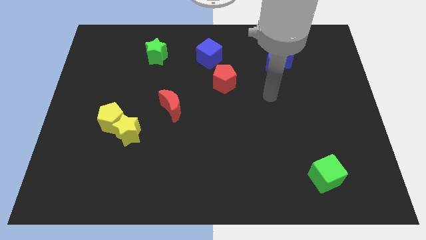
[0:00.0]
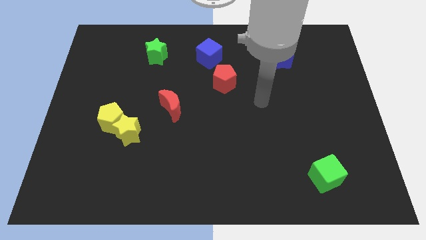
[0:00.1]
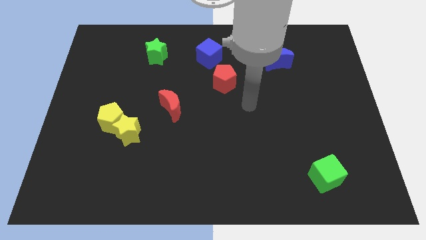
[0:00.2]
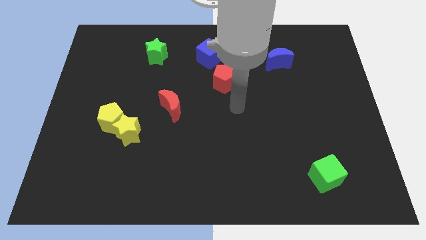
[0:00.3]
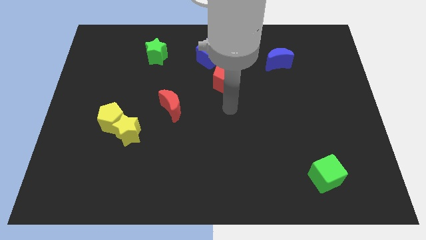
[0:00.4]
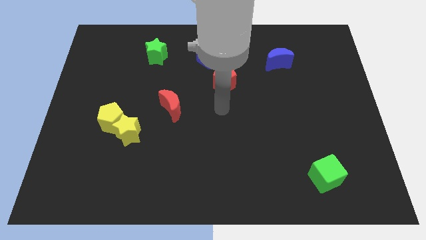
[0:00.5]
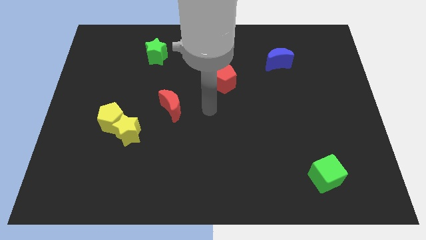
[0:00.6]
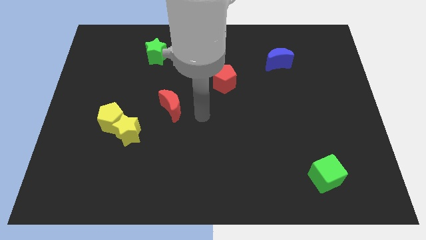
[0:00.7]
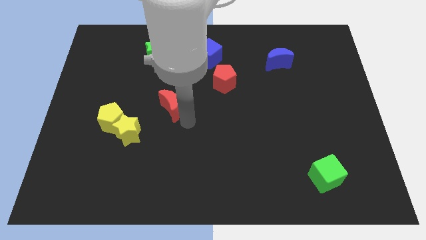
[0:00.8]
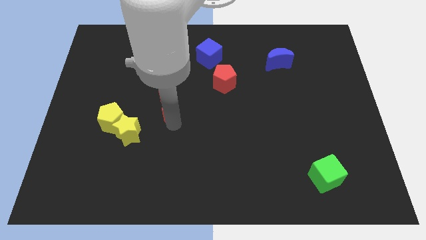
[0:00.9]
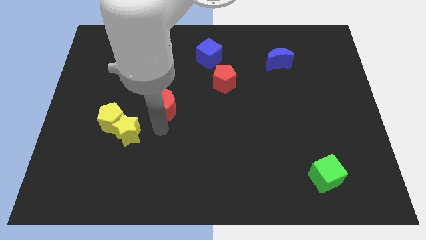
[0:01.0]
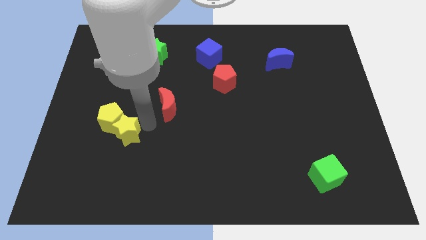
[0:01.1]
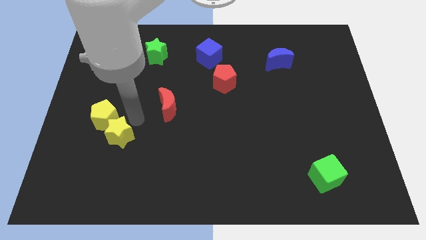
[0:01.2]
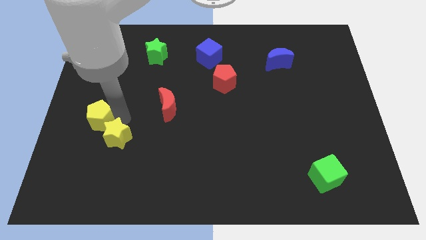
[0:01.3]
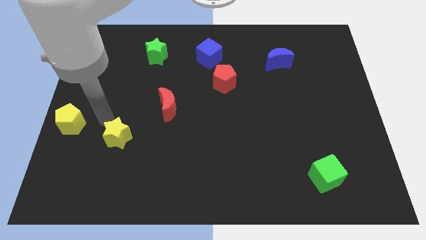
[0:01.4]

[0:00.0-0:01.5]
move the yellow star away from the yellow pentagon

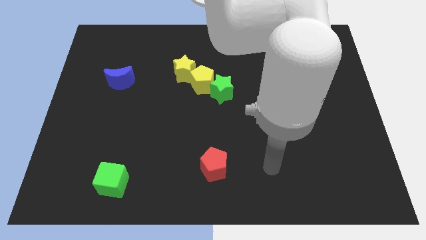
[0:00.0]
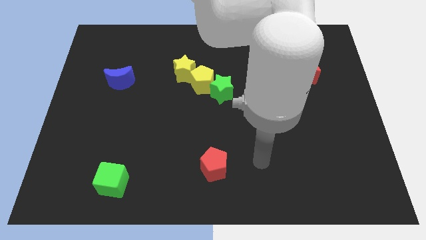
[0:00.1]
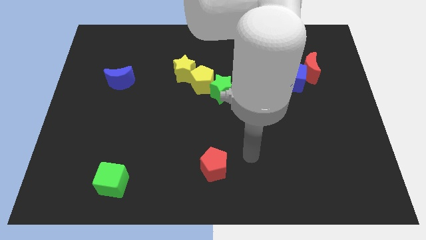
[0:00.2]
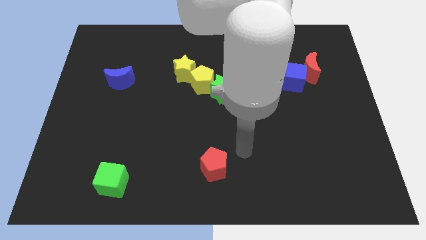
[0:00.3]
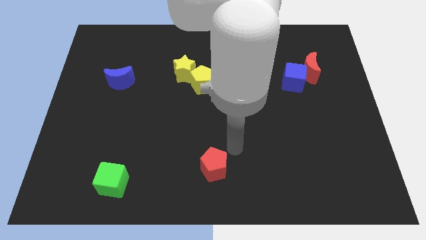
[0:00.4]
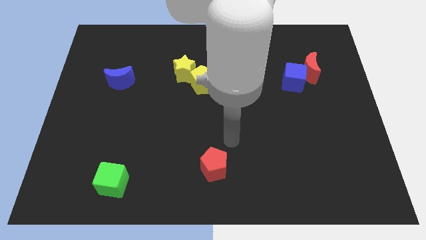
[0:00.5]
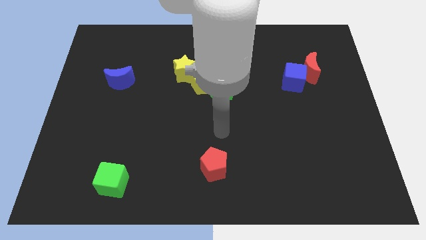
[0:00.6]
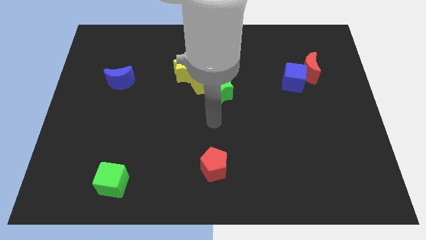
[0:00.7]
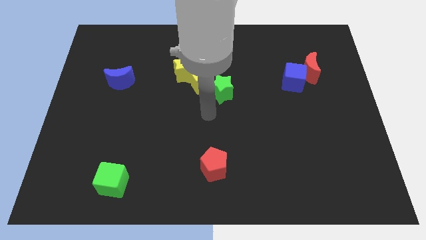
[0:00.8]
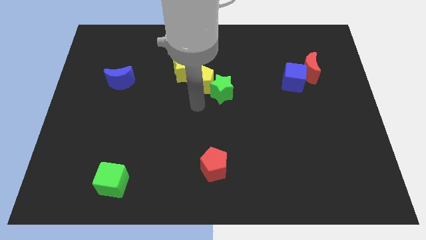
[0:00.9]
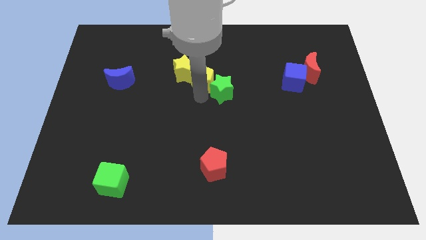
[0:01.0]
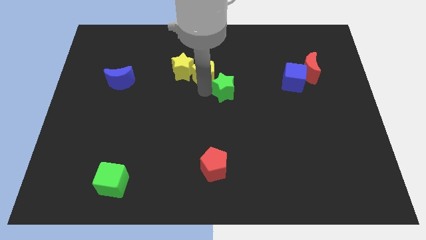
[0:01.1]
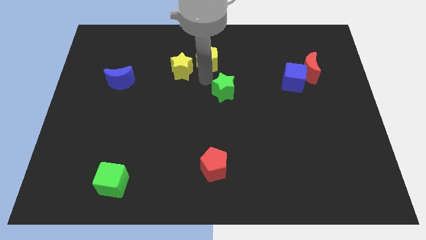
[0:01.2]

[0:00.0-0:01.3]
separate the green star from the yellow pentagon

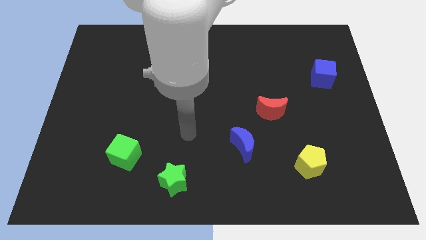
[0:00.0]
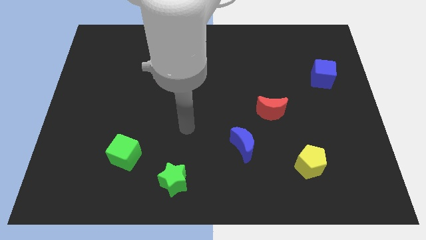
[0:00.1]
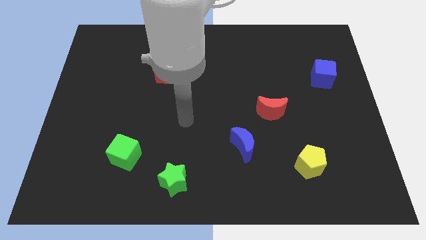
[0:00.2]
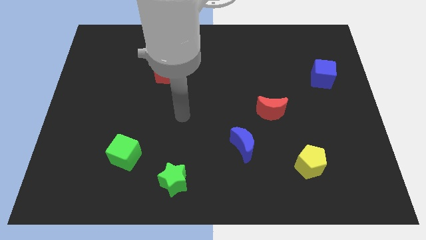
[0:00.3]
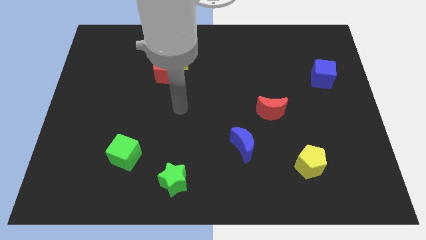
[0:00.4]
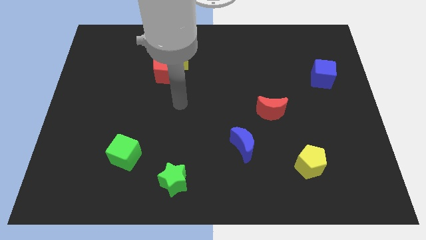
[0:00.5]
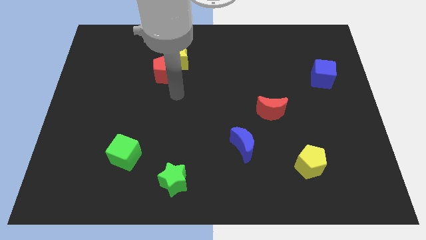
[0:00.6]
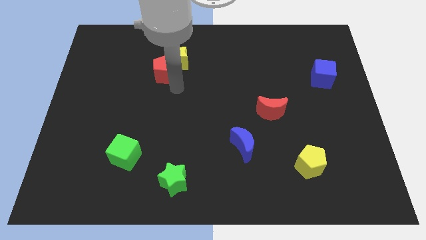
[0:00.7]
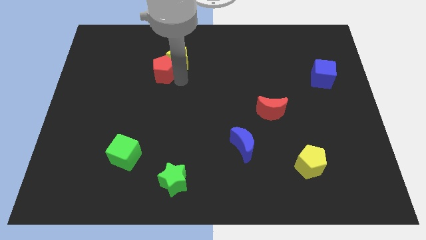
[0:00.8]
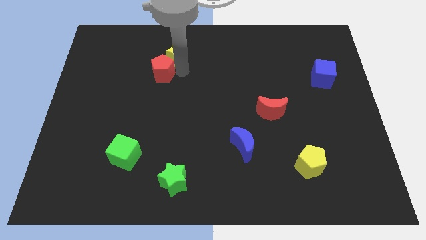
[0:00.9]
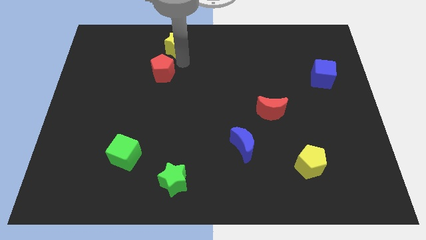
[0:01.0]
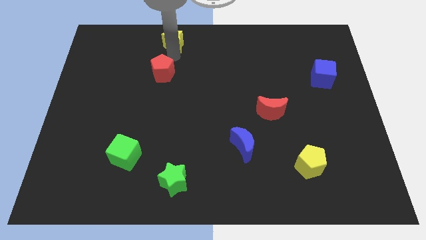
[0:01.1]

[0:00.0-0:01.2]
separate the red pentagon from the yellow star

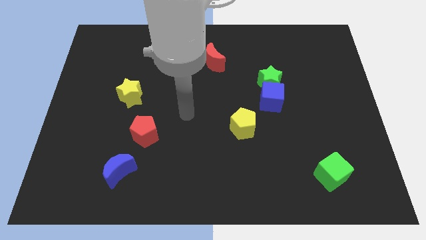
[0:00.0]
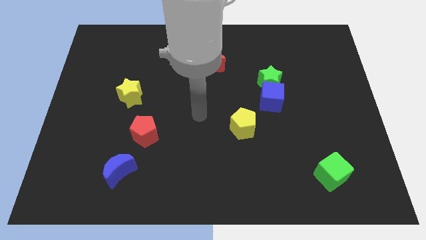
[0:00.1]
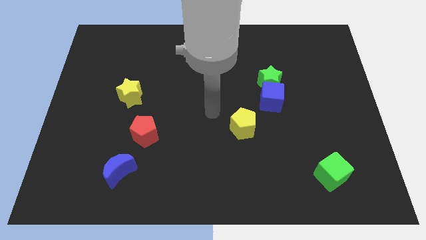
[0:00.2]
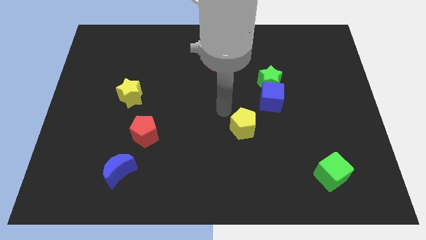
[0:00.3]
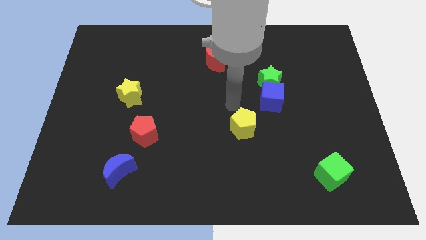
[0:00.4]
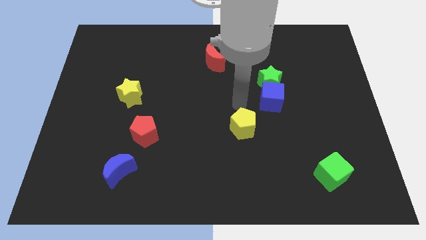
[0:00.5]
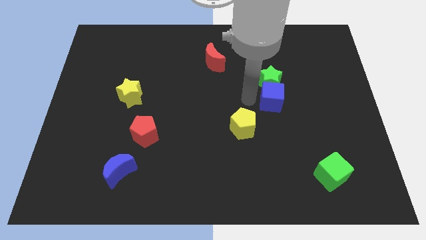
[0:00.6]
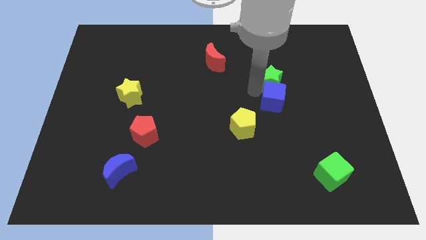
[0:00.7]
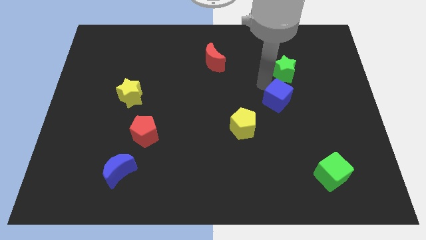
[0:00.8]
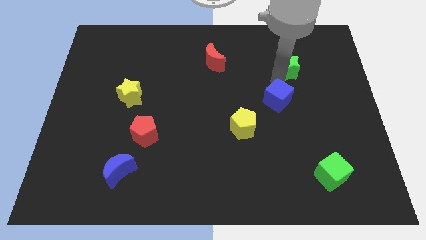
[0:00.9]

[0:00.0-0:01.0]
move the blue cube away from the green star

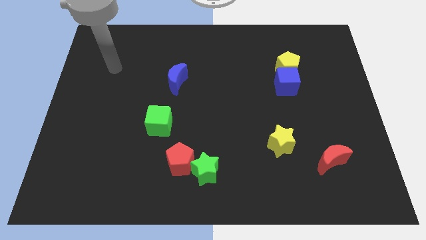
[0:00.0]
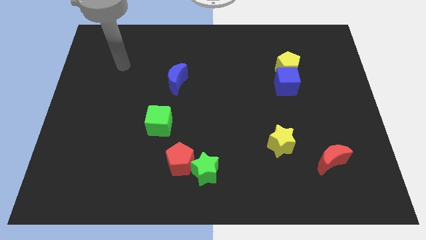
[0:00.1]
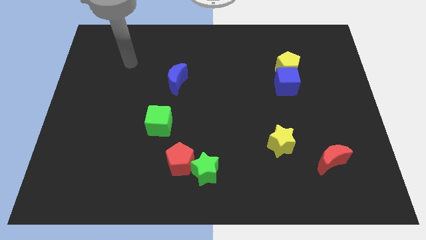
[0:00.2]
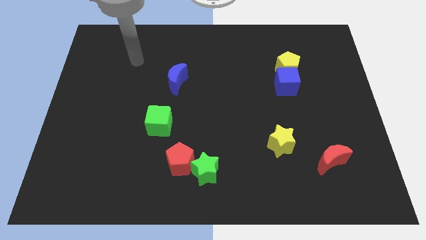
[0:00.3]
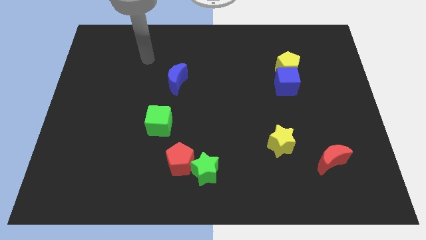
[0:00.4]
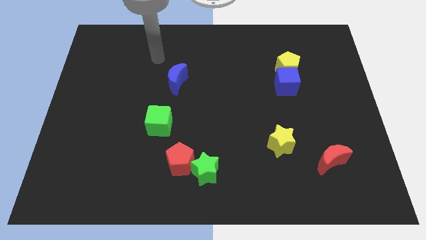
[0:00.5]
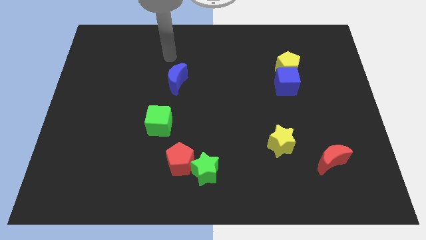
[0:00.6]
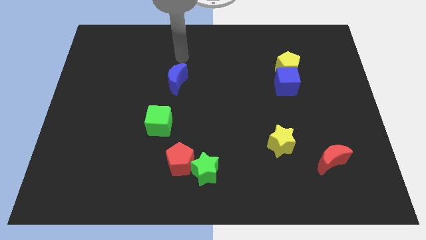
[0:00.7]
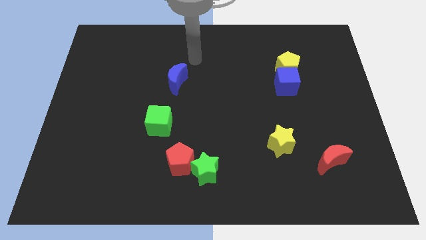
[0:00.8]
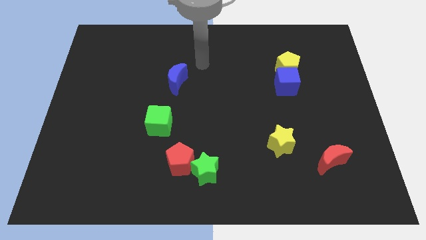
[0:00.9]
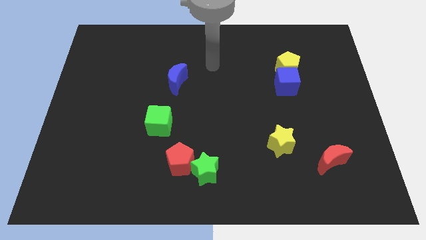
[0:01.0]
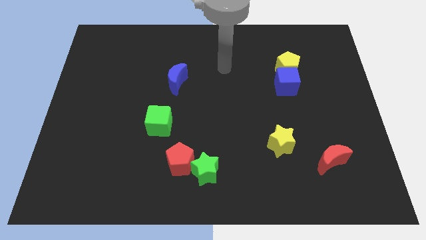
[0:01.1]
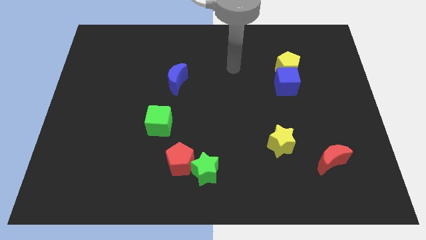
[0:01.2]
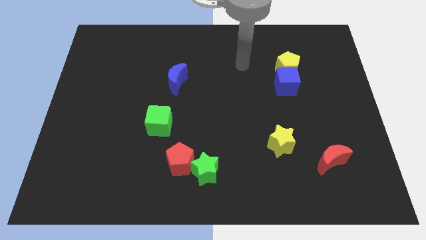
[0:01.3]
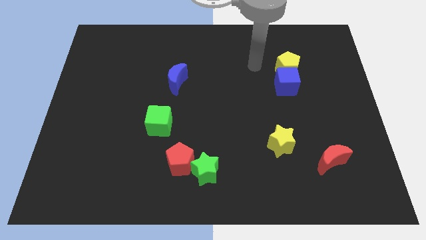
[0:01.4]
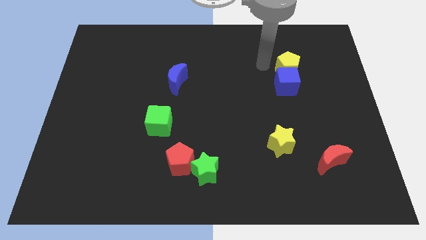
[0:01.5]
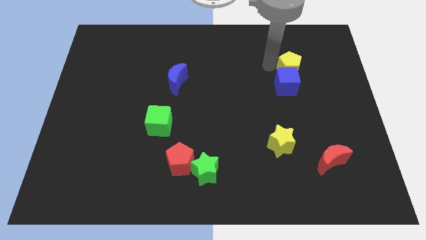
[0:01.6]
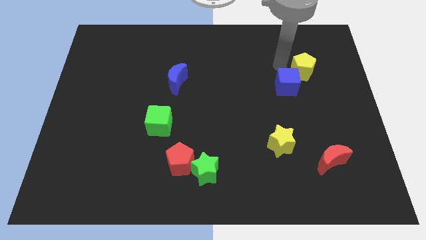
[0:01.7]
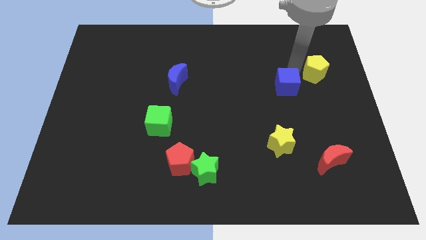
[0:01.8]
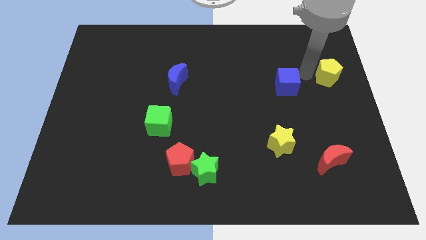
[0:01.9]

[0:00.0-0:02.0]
pull the blue cube apart from the yellow pentagon

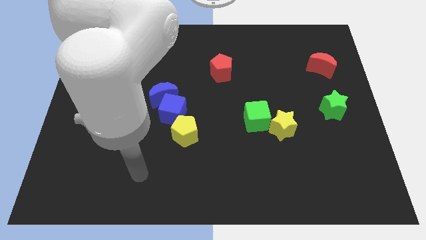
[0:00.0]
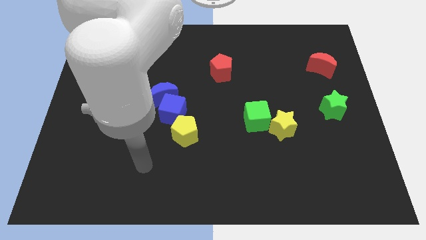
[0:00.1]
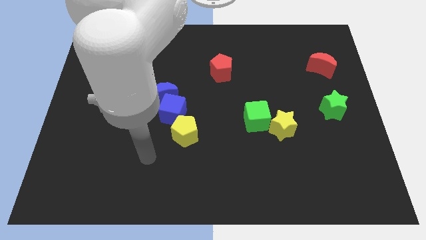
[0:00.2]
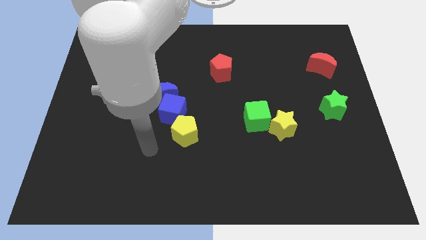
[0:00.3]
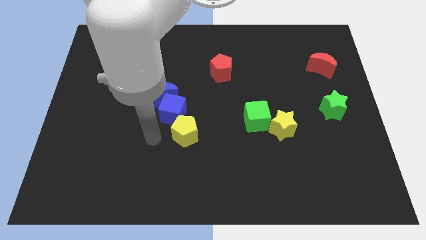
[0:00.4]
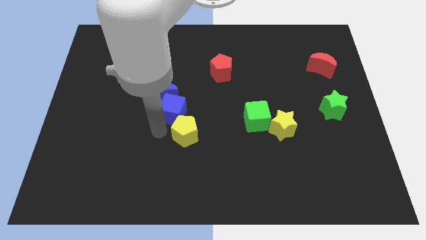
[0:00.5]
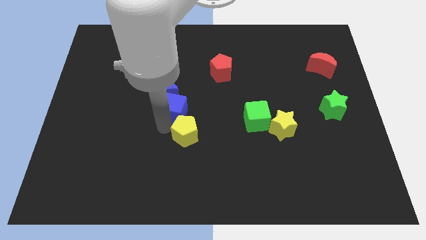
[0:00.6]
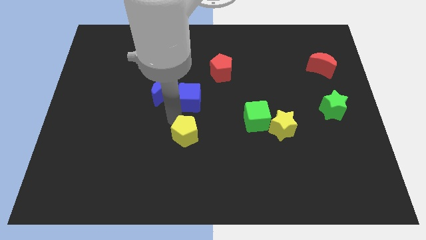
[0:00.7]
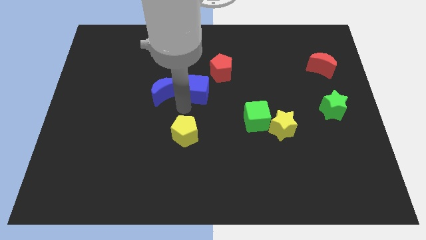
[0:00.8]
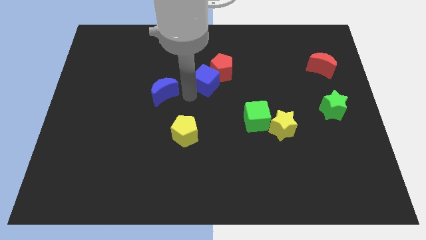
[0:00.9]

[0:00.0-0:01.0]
move the blue moon away from the blue cube

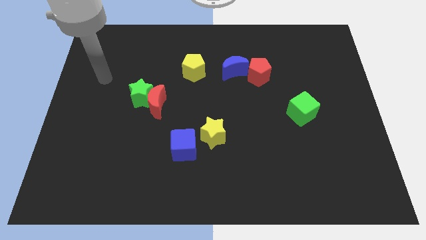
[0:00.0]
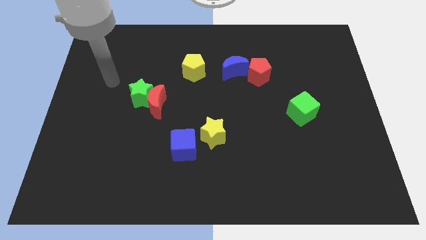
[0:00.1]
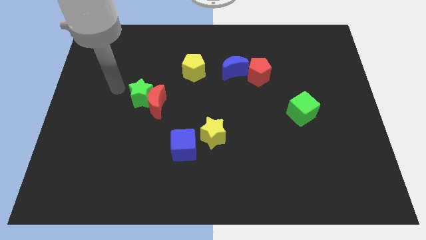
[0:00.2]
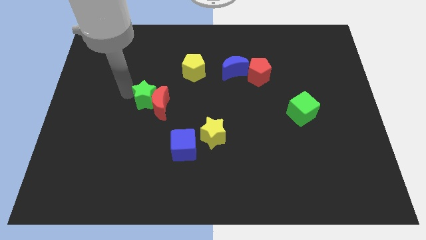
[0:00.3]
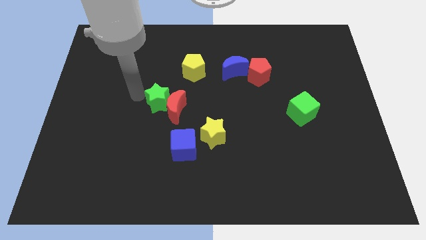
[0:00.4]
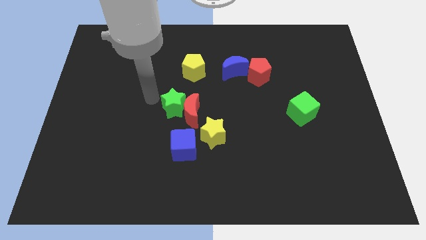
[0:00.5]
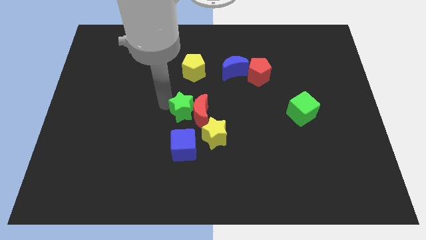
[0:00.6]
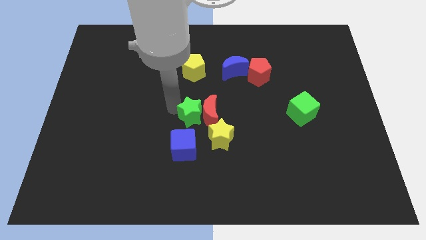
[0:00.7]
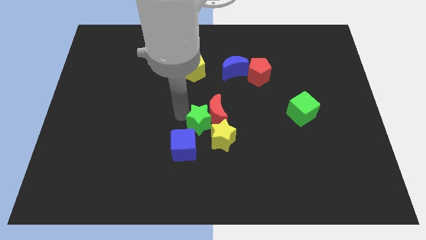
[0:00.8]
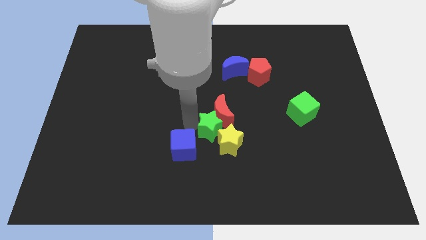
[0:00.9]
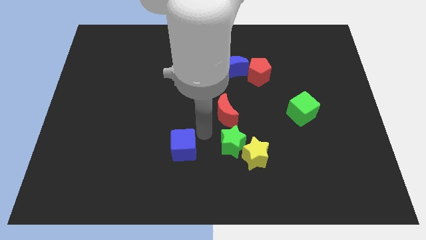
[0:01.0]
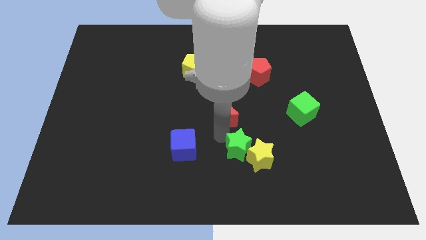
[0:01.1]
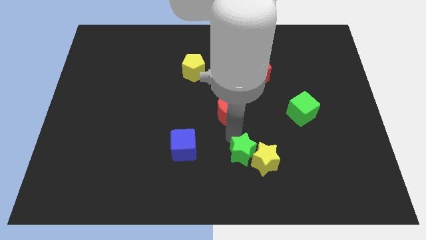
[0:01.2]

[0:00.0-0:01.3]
separate the red moon from the green star
